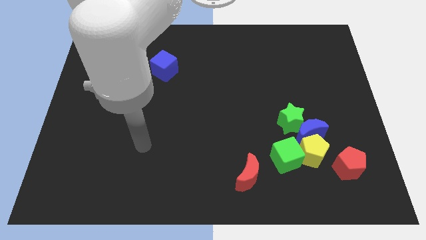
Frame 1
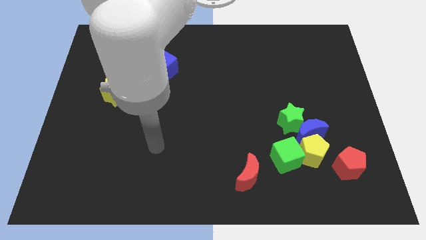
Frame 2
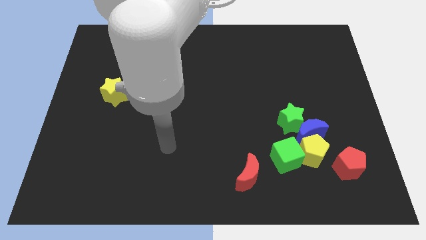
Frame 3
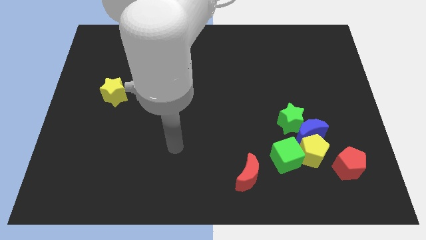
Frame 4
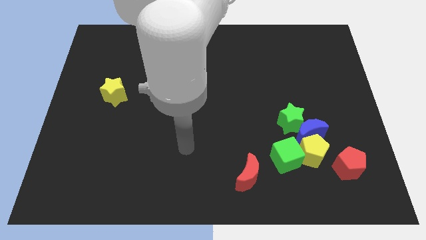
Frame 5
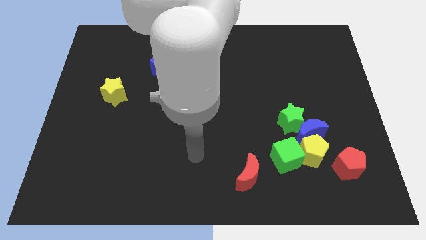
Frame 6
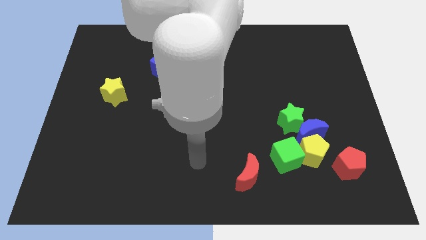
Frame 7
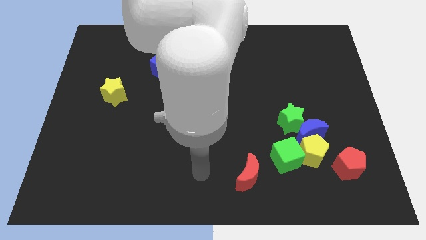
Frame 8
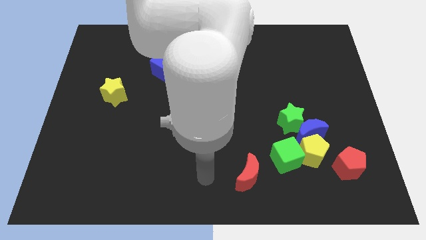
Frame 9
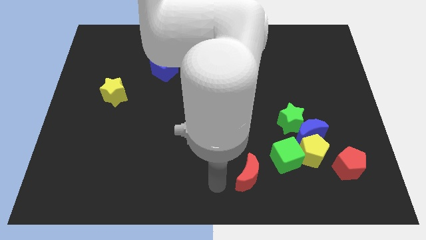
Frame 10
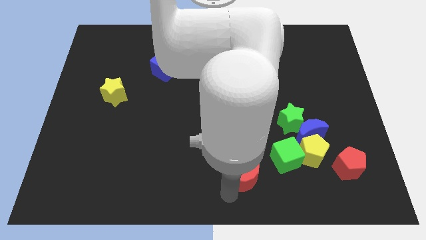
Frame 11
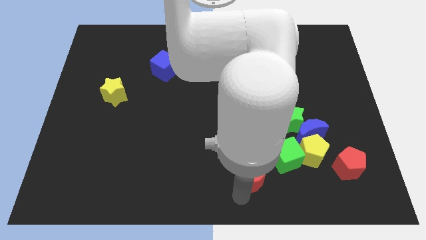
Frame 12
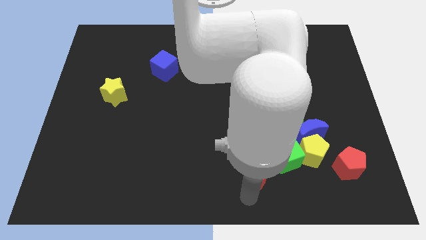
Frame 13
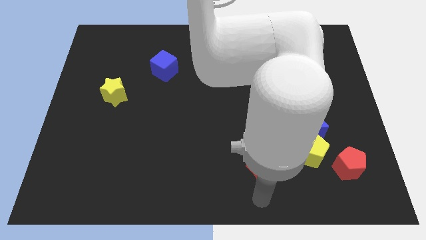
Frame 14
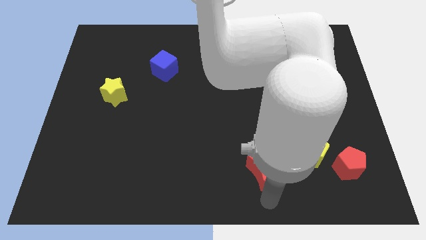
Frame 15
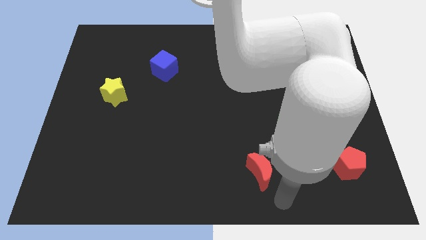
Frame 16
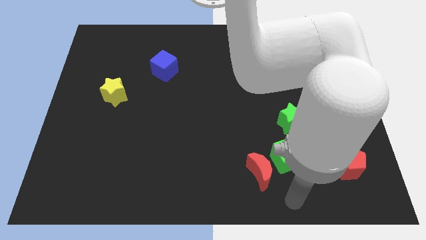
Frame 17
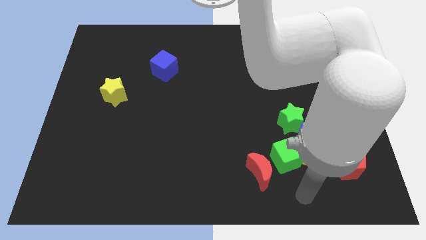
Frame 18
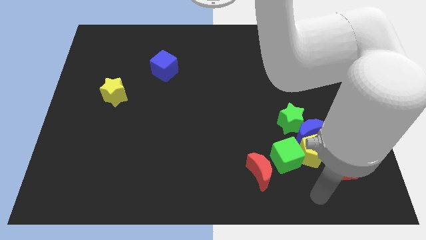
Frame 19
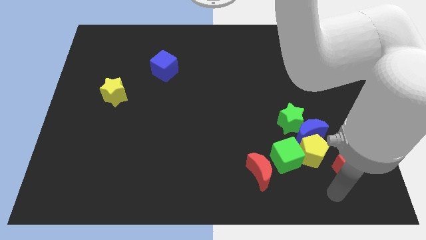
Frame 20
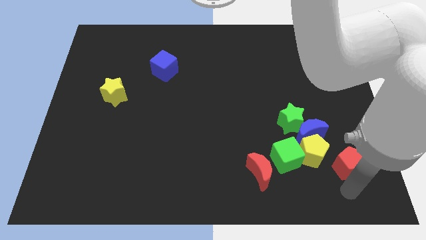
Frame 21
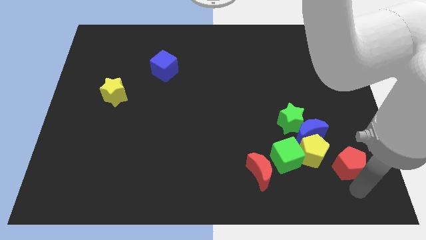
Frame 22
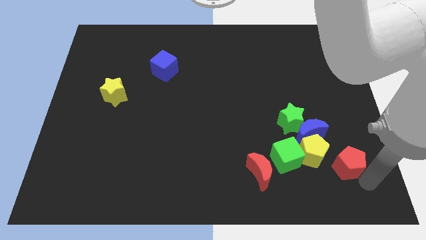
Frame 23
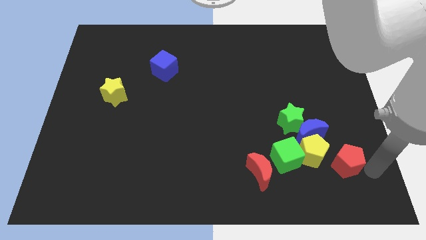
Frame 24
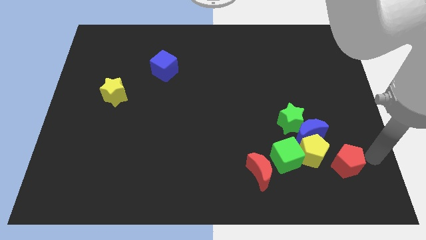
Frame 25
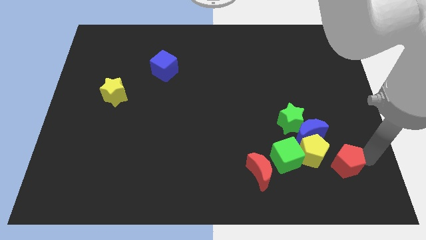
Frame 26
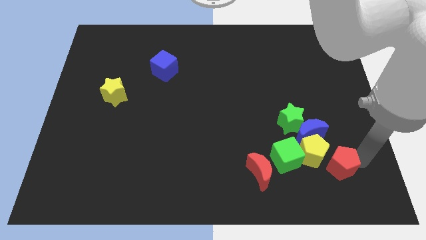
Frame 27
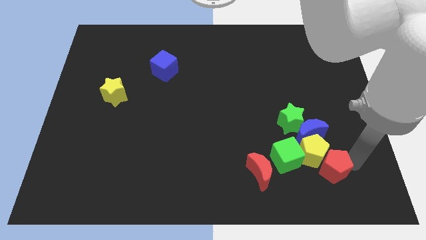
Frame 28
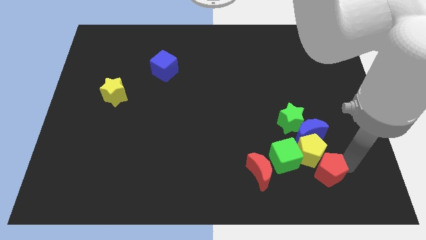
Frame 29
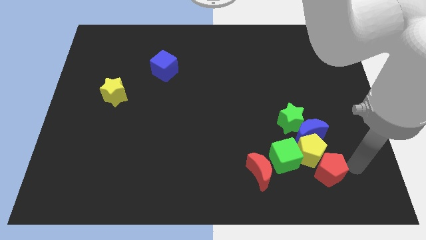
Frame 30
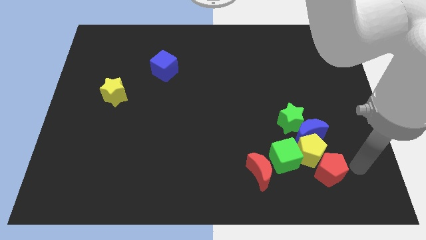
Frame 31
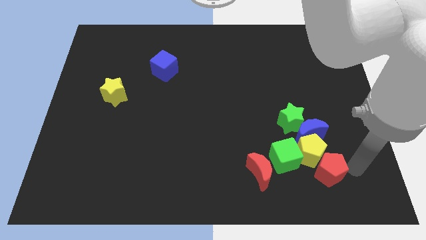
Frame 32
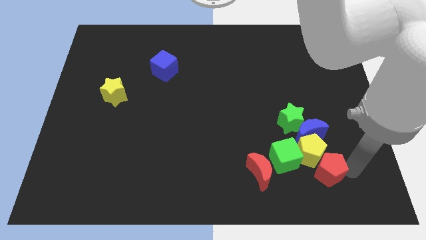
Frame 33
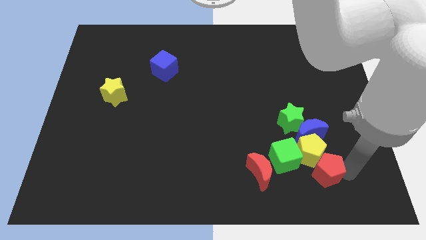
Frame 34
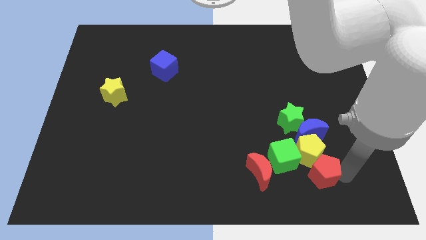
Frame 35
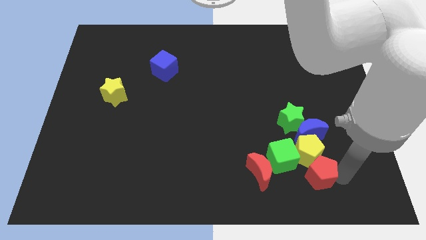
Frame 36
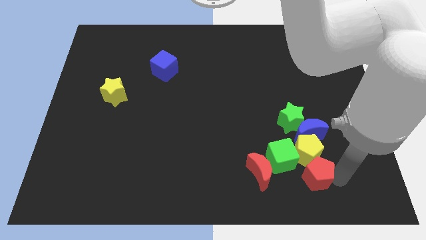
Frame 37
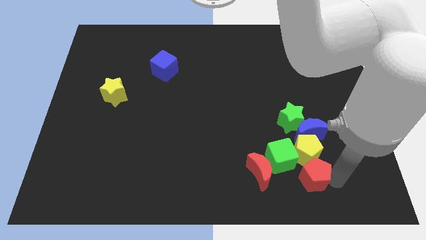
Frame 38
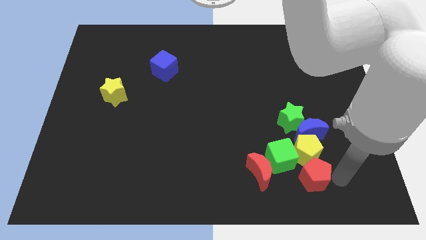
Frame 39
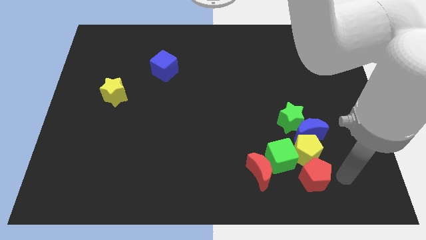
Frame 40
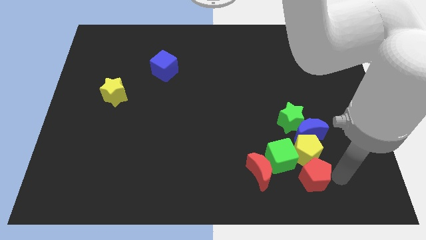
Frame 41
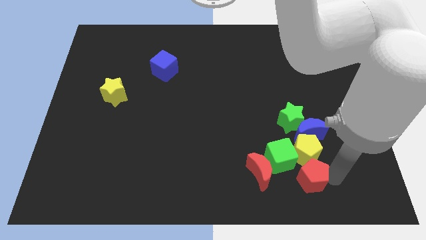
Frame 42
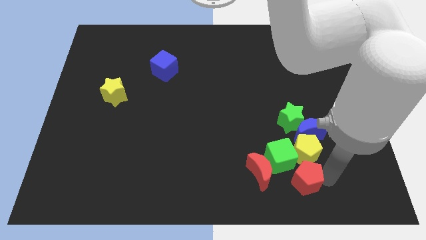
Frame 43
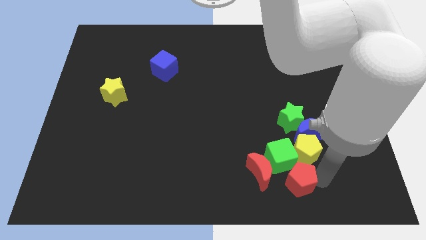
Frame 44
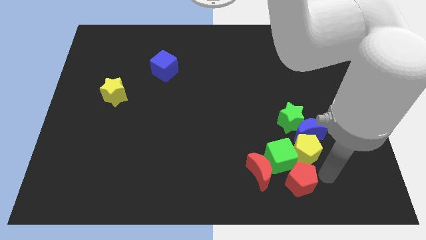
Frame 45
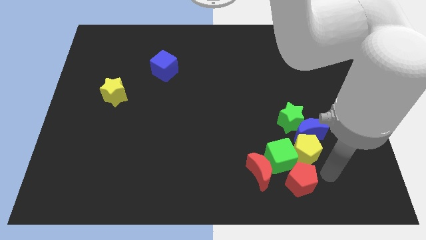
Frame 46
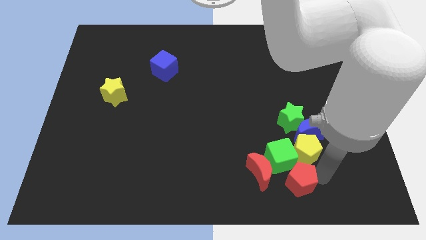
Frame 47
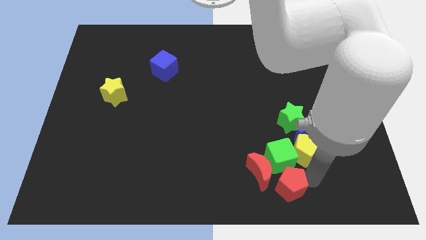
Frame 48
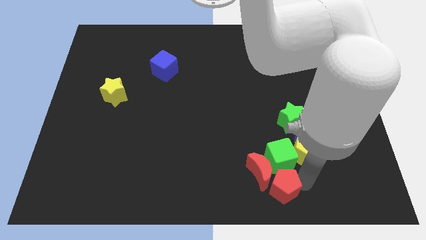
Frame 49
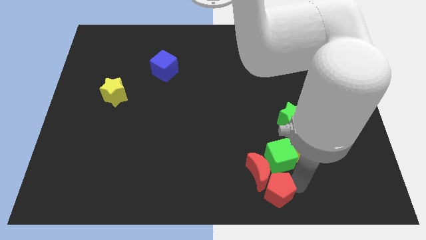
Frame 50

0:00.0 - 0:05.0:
slide the red pentagon to the bottom

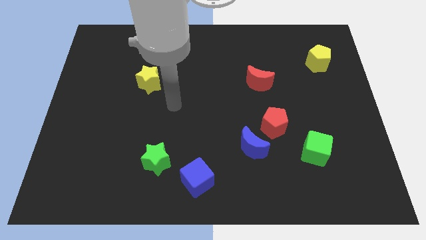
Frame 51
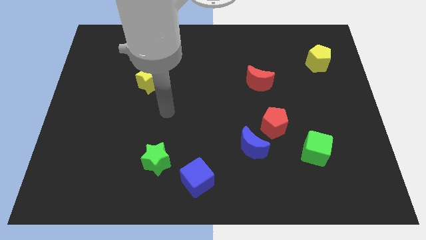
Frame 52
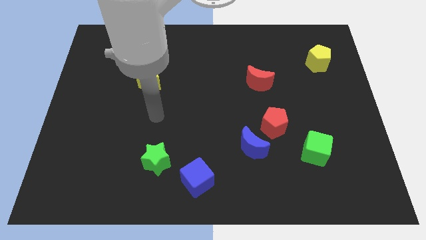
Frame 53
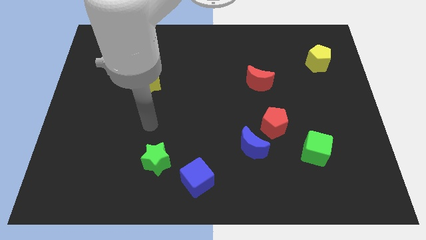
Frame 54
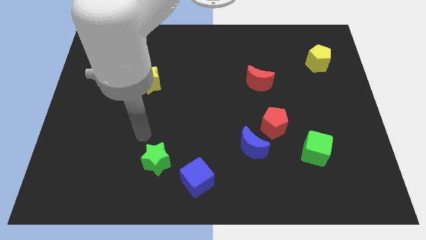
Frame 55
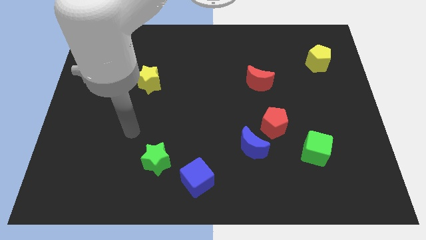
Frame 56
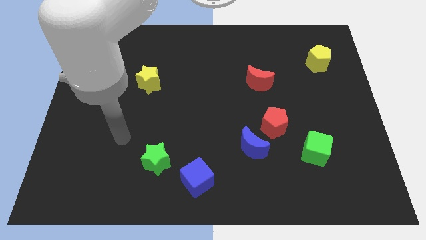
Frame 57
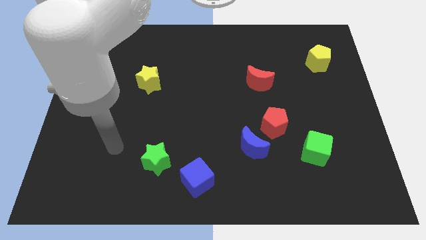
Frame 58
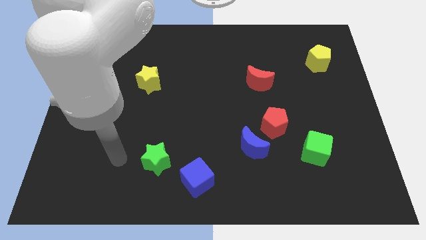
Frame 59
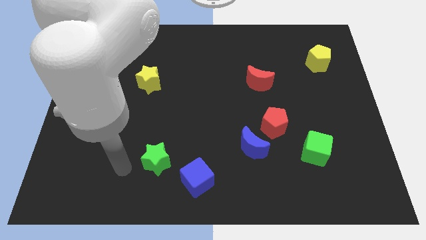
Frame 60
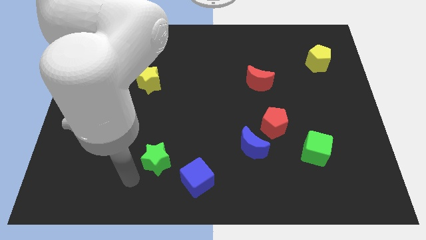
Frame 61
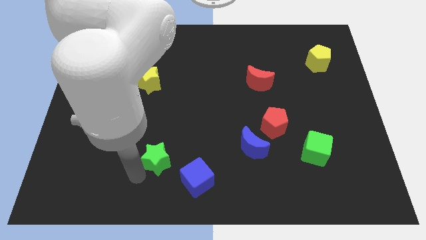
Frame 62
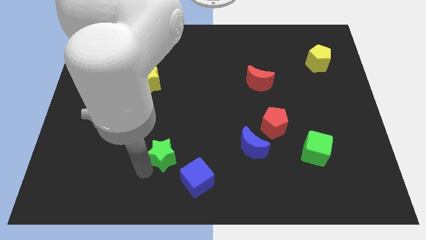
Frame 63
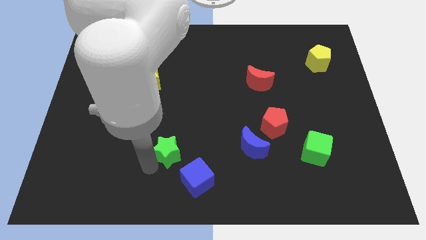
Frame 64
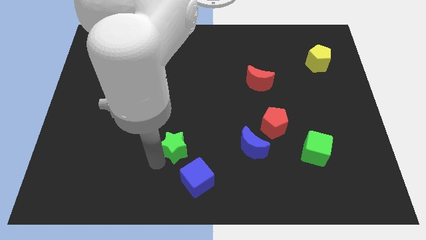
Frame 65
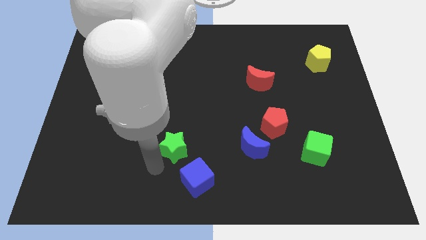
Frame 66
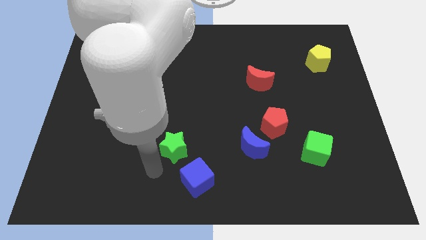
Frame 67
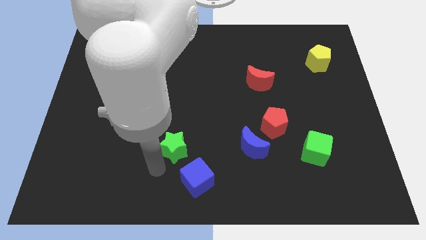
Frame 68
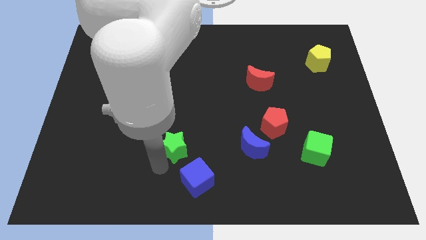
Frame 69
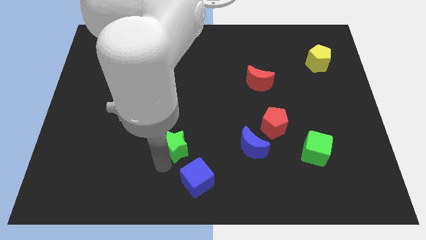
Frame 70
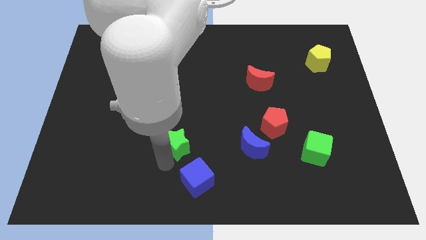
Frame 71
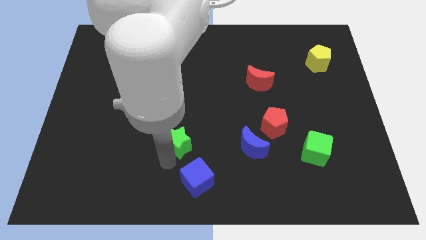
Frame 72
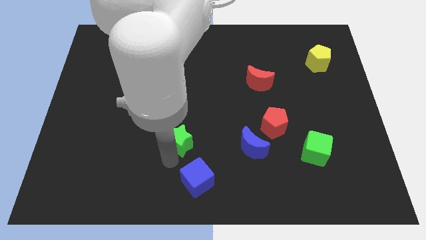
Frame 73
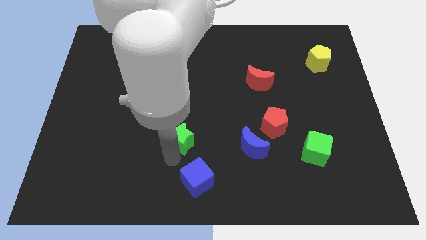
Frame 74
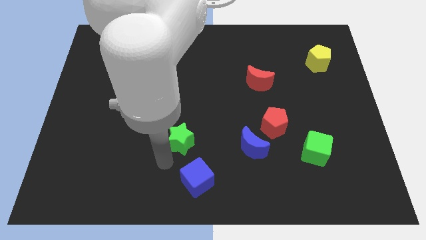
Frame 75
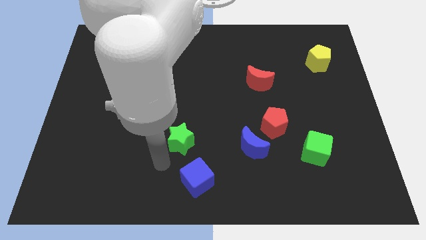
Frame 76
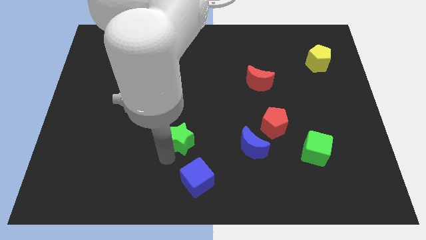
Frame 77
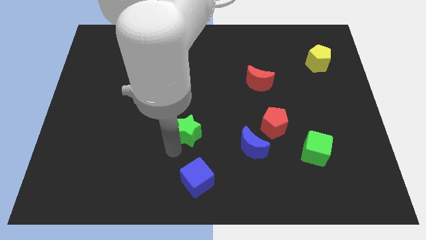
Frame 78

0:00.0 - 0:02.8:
move the green star to the middle

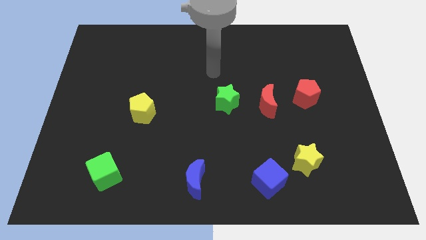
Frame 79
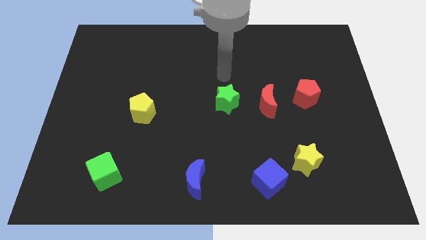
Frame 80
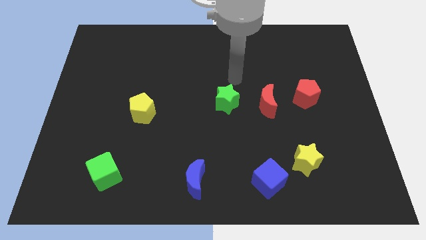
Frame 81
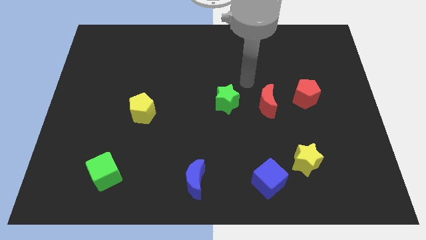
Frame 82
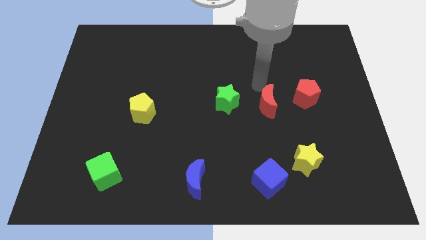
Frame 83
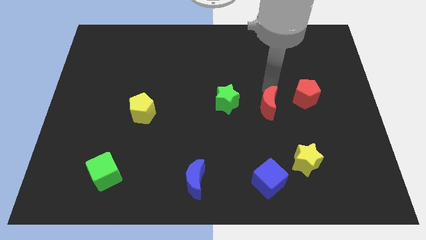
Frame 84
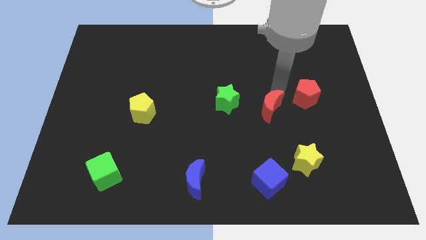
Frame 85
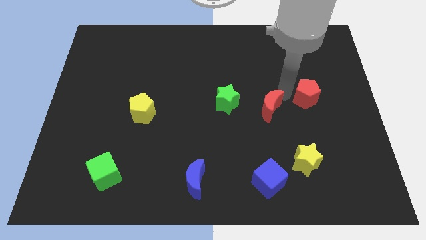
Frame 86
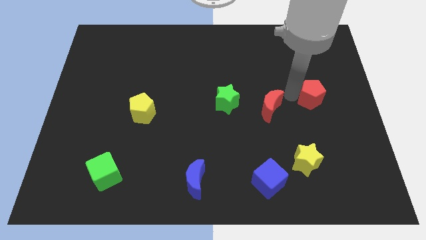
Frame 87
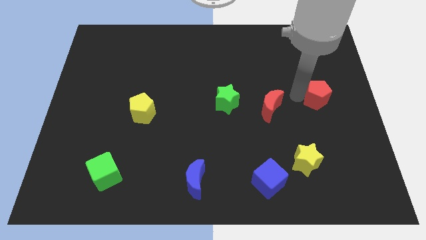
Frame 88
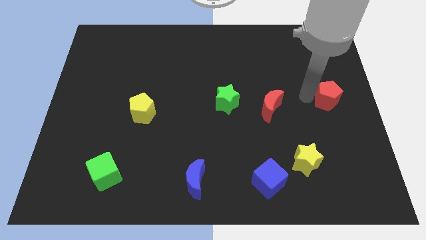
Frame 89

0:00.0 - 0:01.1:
slide the red pentagon to the right side of the board
